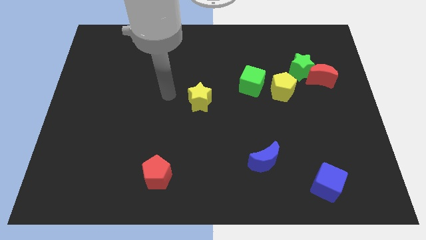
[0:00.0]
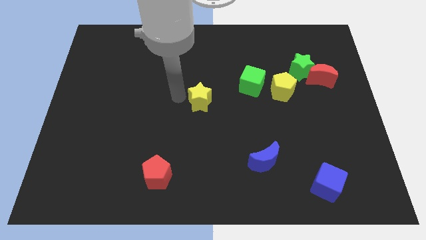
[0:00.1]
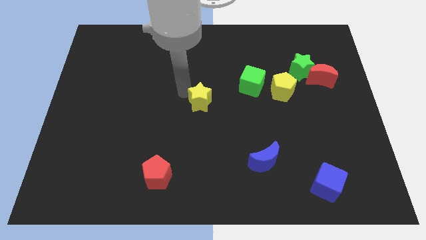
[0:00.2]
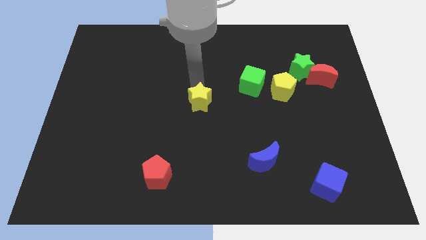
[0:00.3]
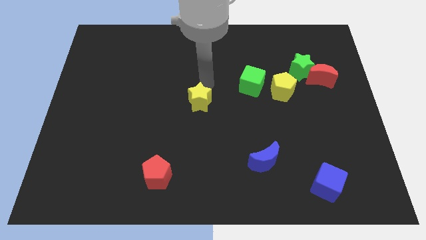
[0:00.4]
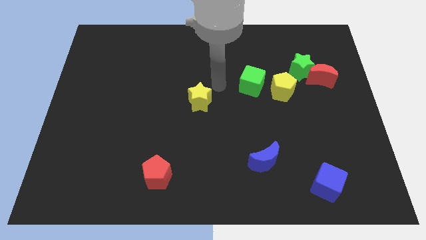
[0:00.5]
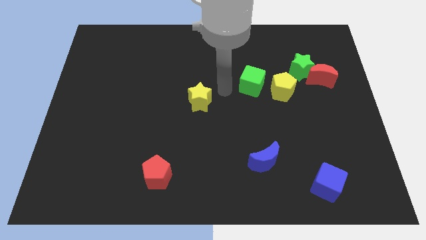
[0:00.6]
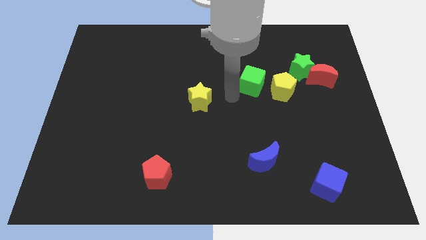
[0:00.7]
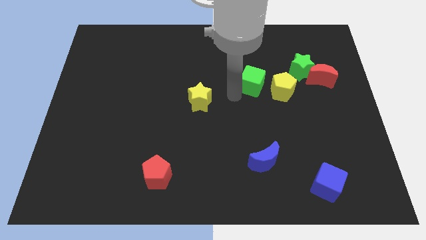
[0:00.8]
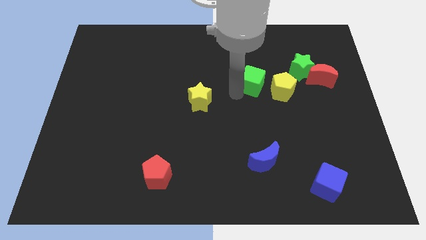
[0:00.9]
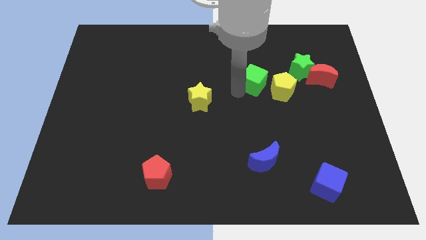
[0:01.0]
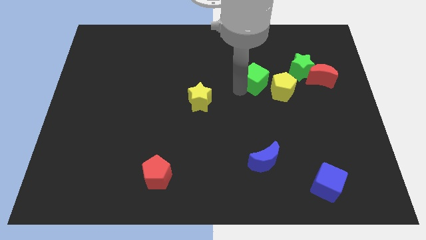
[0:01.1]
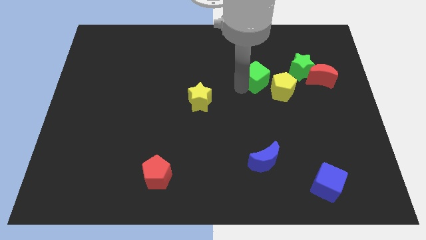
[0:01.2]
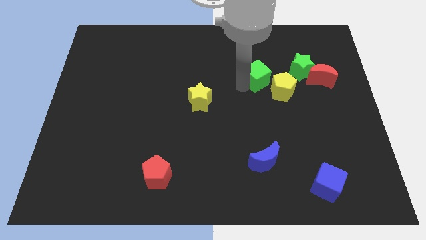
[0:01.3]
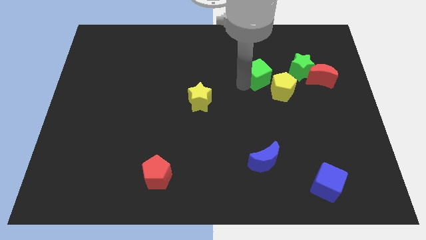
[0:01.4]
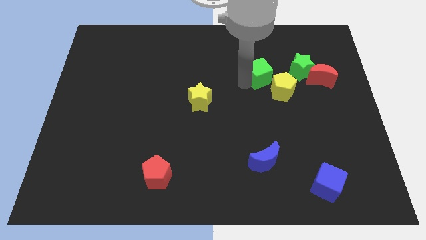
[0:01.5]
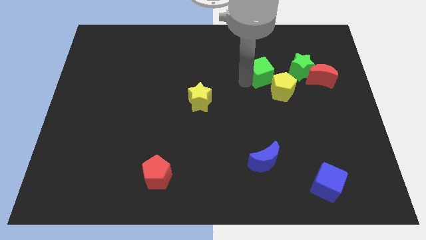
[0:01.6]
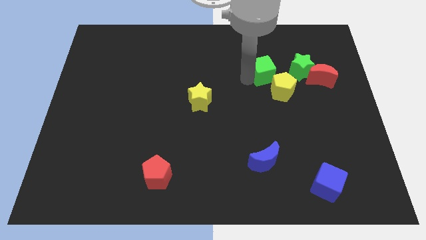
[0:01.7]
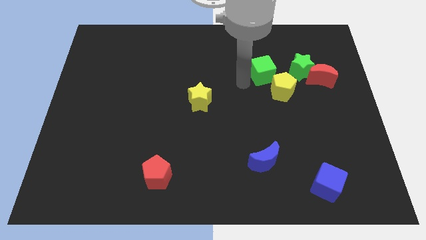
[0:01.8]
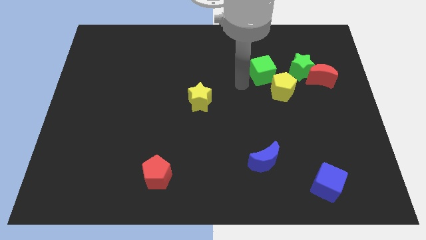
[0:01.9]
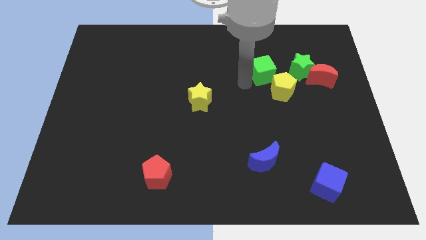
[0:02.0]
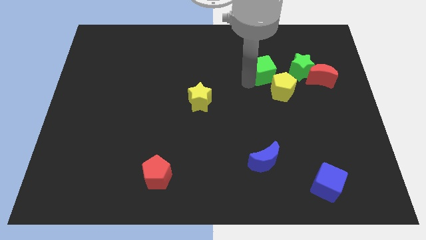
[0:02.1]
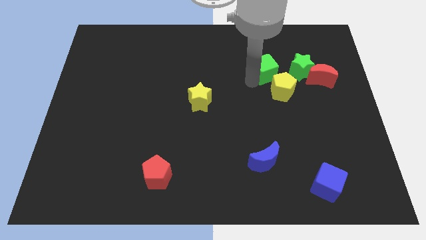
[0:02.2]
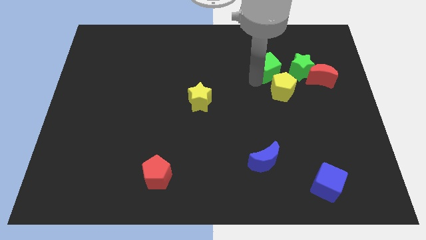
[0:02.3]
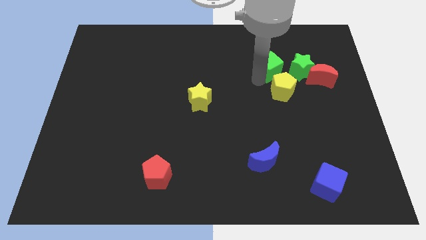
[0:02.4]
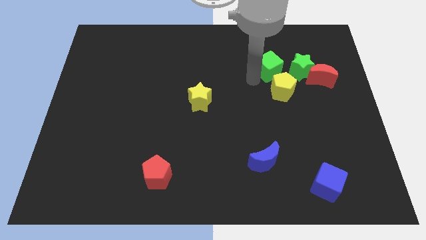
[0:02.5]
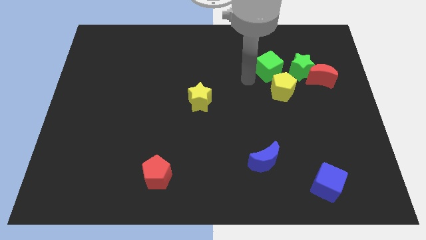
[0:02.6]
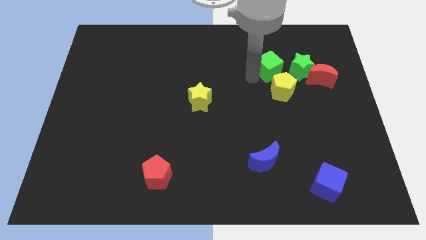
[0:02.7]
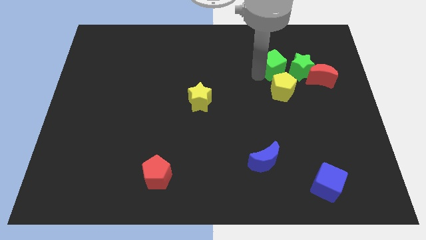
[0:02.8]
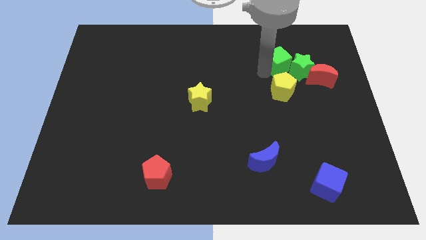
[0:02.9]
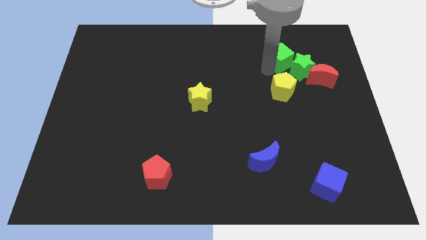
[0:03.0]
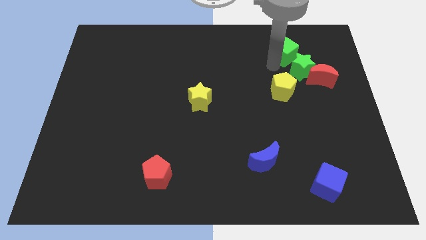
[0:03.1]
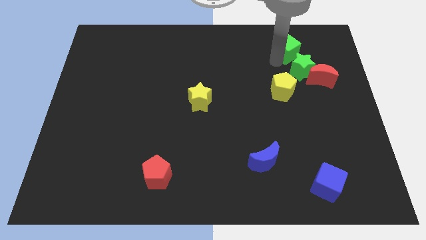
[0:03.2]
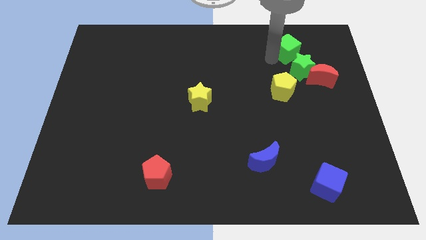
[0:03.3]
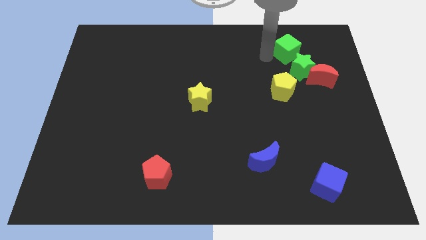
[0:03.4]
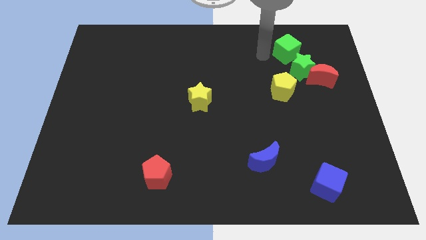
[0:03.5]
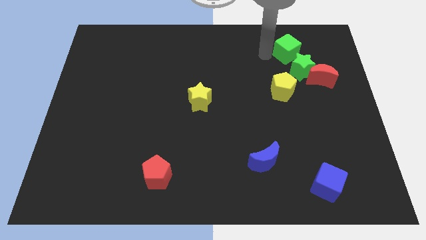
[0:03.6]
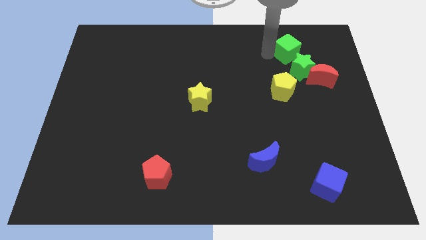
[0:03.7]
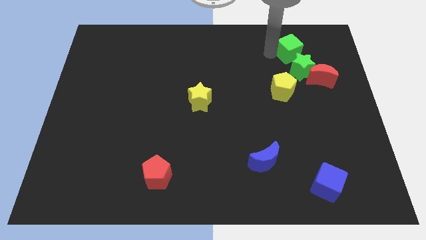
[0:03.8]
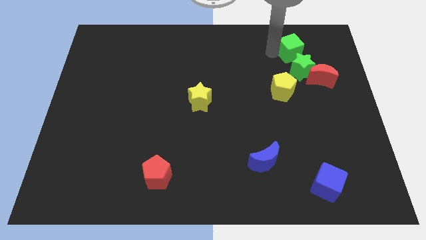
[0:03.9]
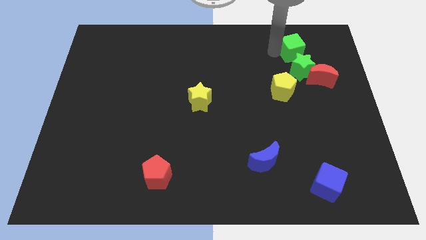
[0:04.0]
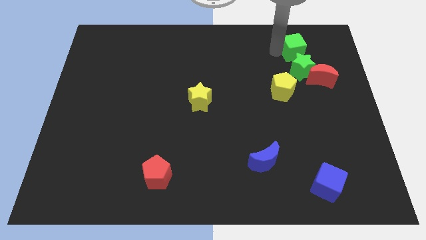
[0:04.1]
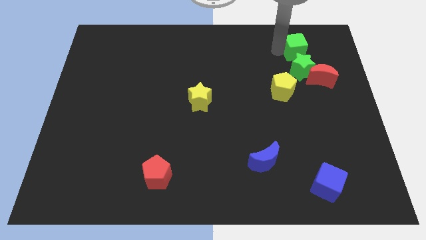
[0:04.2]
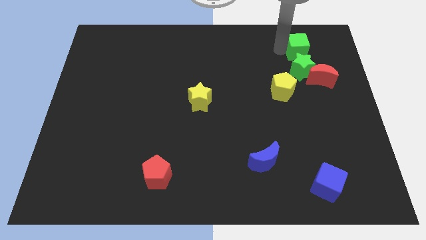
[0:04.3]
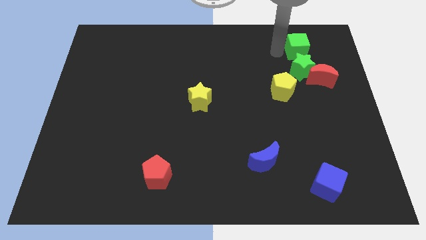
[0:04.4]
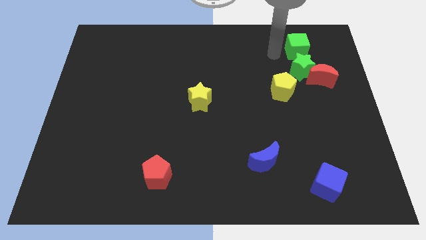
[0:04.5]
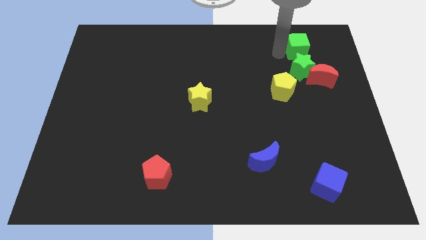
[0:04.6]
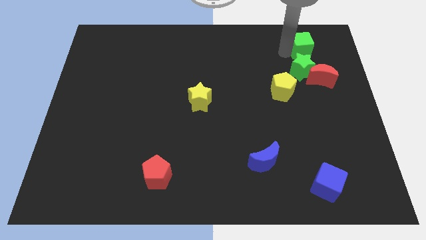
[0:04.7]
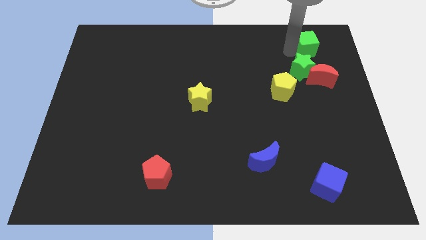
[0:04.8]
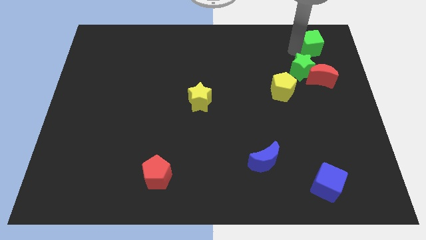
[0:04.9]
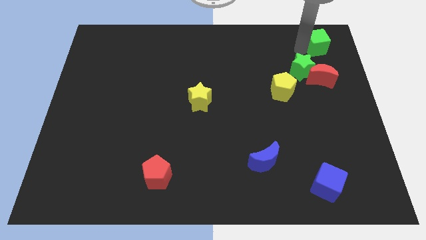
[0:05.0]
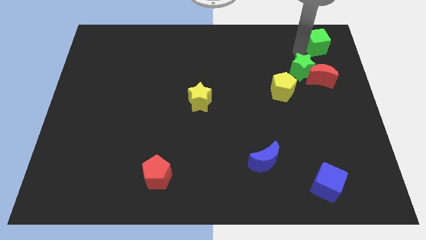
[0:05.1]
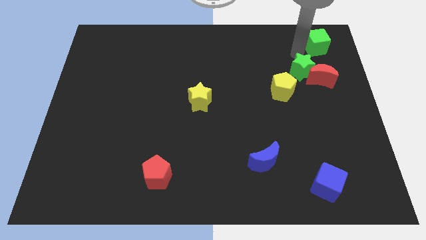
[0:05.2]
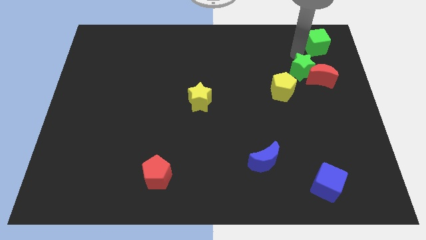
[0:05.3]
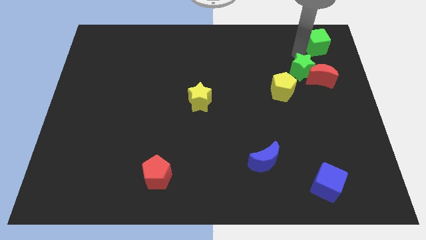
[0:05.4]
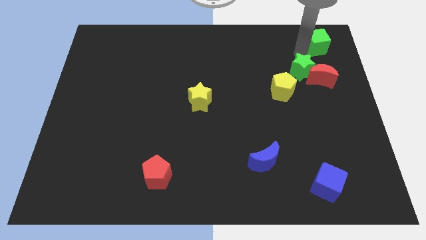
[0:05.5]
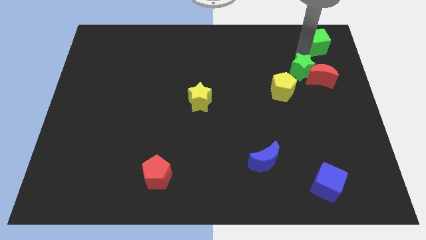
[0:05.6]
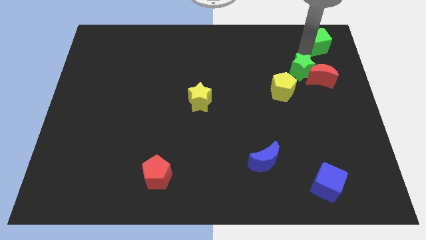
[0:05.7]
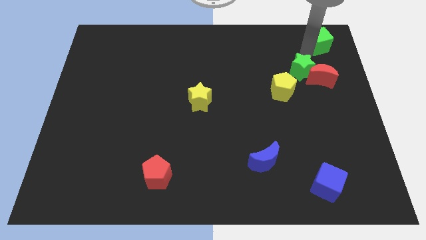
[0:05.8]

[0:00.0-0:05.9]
push the green cube to the top right of the board
